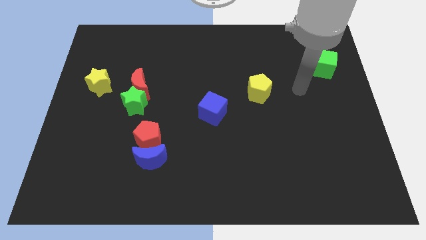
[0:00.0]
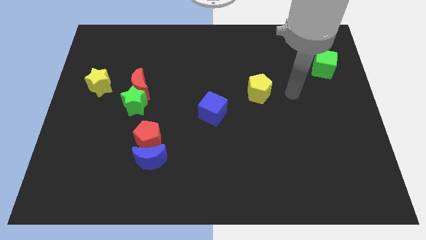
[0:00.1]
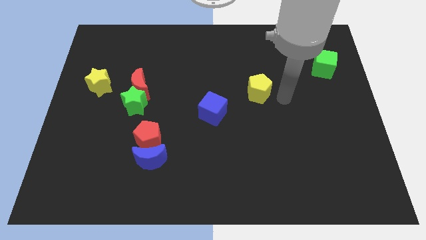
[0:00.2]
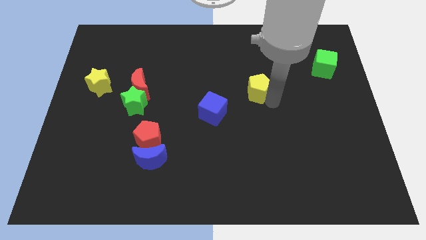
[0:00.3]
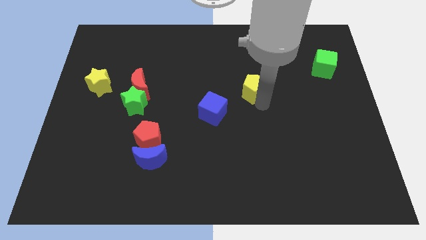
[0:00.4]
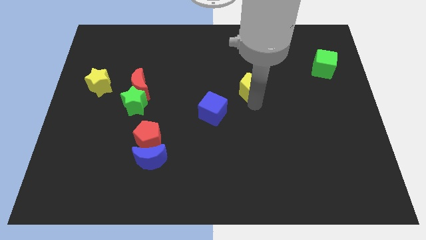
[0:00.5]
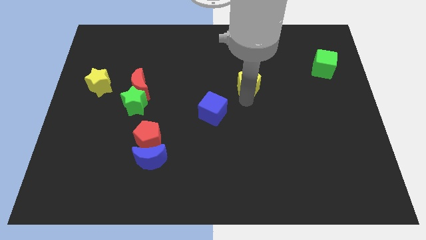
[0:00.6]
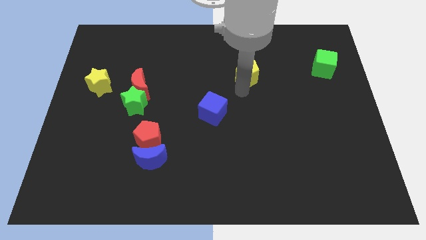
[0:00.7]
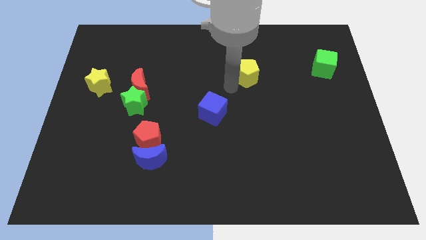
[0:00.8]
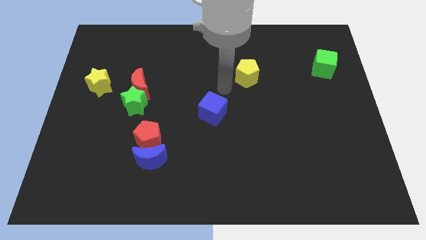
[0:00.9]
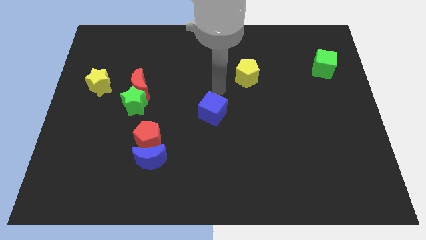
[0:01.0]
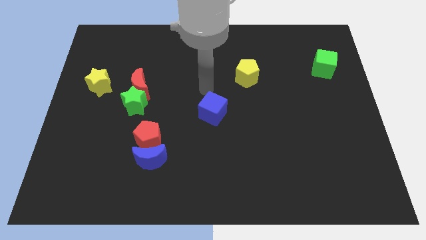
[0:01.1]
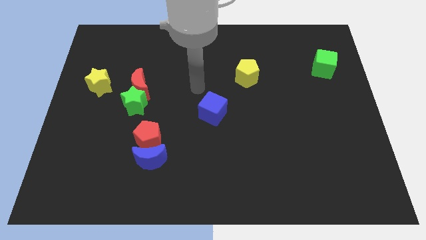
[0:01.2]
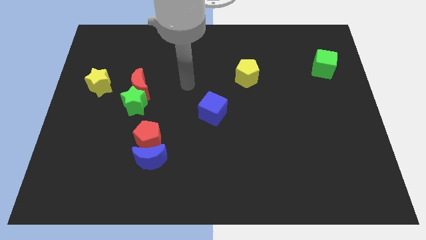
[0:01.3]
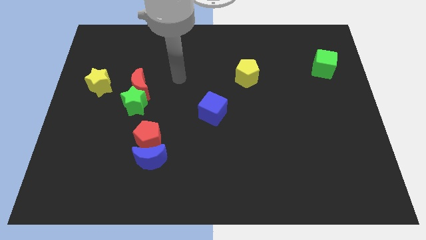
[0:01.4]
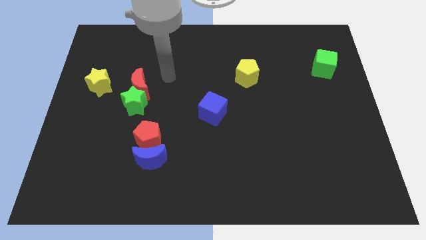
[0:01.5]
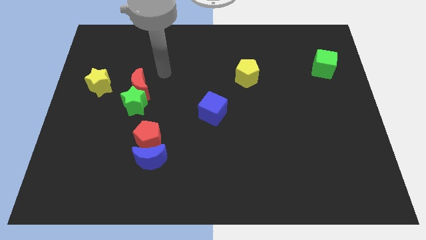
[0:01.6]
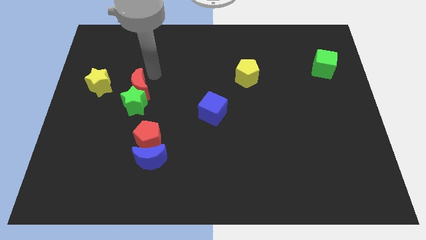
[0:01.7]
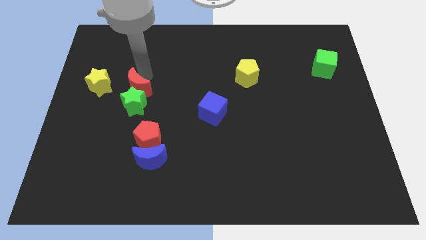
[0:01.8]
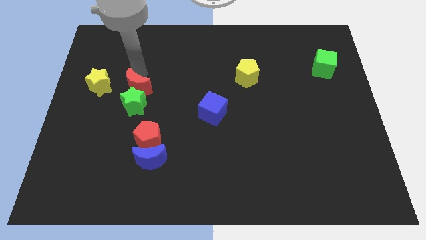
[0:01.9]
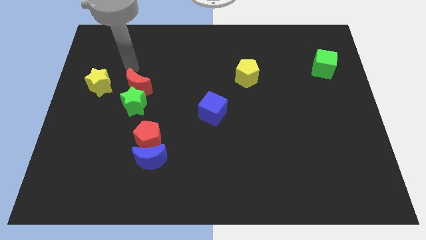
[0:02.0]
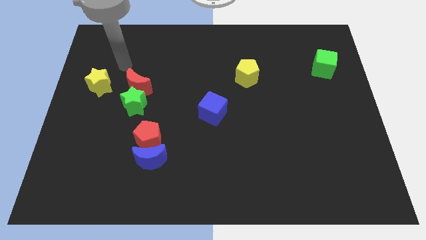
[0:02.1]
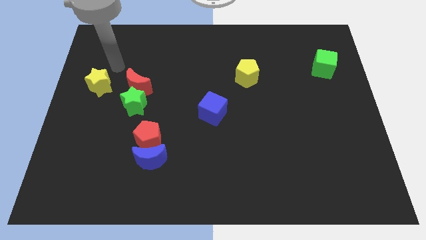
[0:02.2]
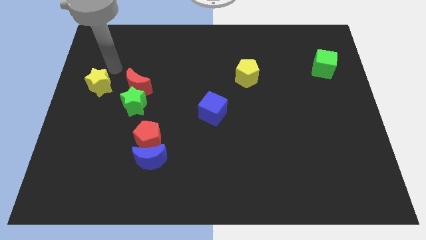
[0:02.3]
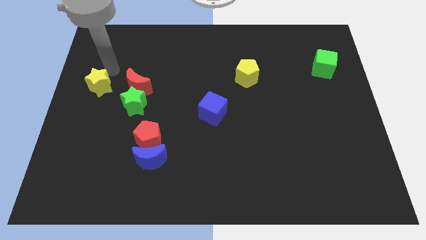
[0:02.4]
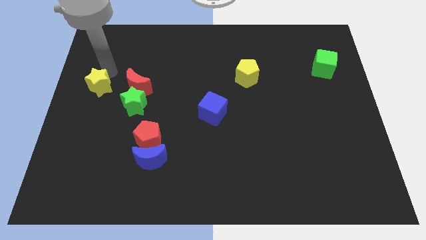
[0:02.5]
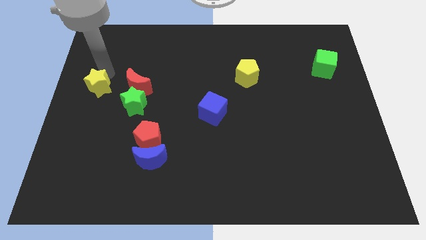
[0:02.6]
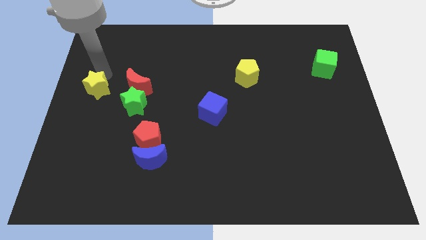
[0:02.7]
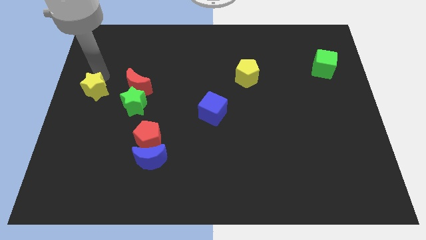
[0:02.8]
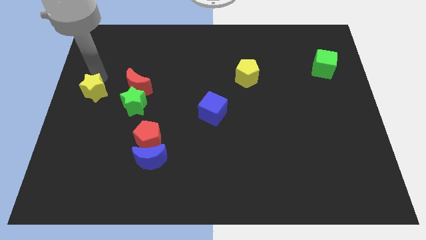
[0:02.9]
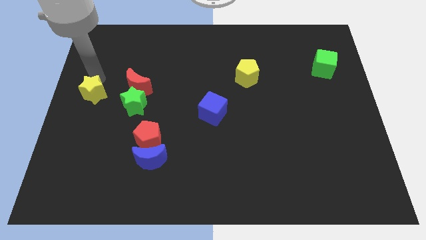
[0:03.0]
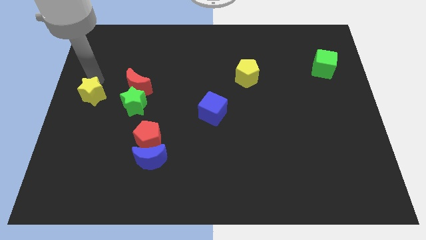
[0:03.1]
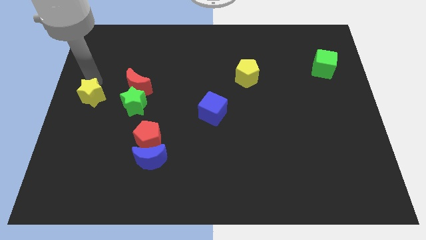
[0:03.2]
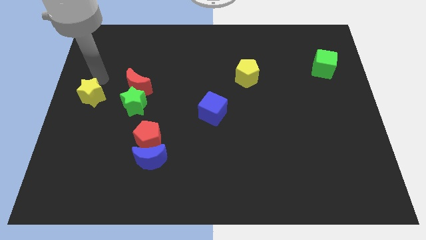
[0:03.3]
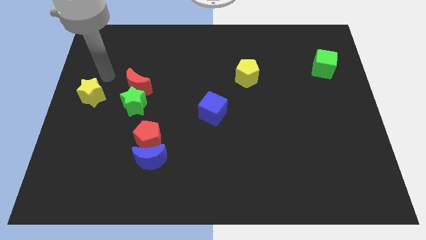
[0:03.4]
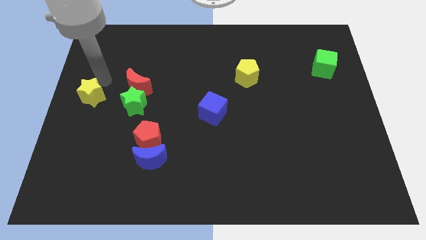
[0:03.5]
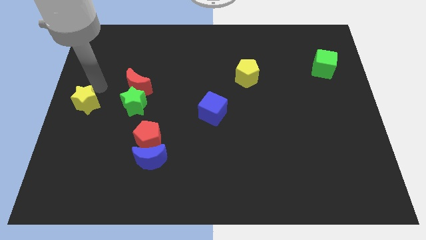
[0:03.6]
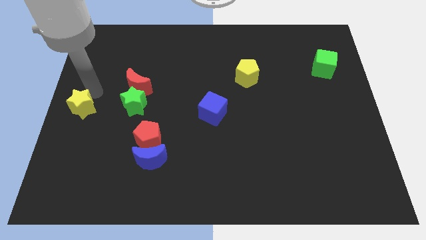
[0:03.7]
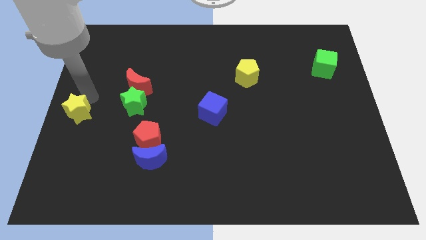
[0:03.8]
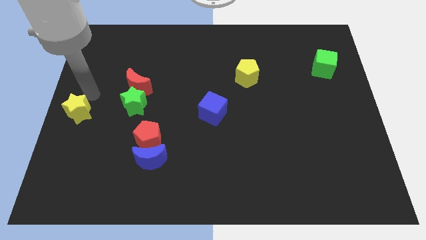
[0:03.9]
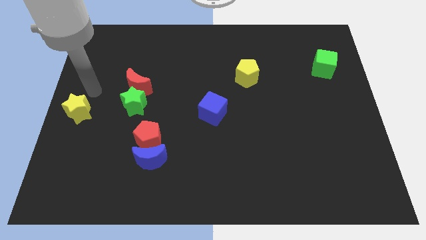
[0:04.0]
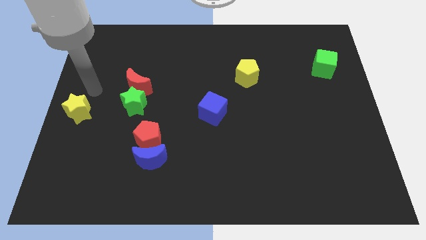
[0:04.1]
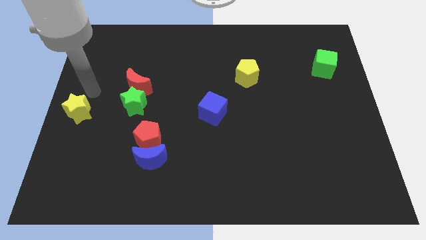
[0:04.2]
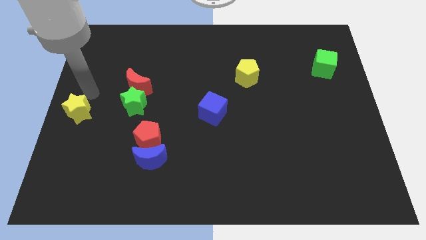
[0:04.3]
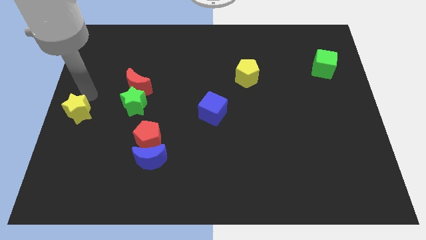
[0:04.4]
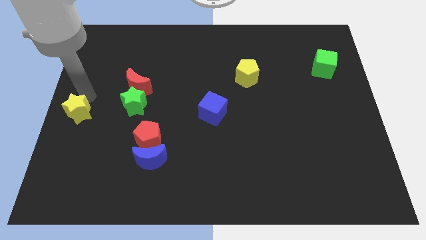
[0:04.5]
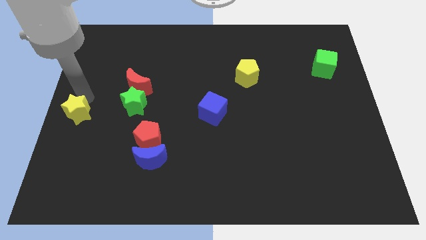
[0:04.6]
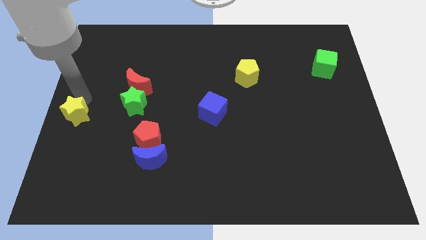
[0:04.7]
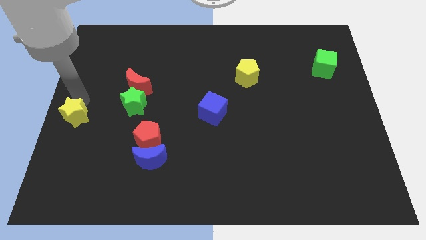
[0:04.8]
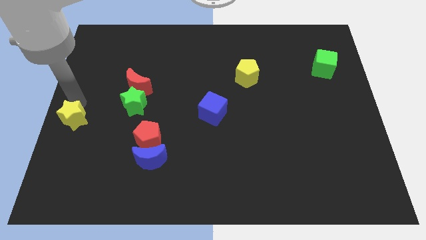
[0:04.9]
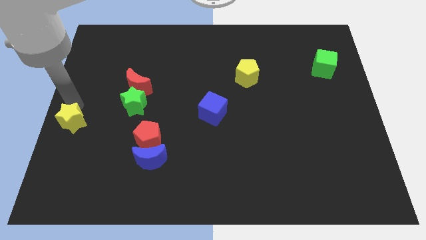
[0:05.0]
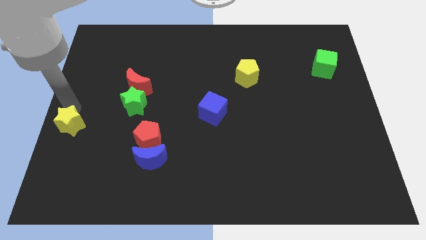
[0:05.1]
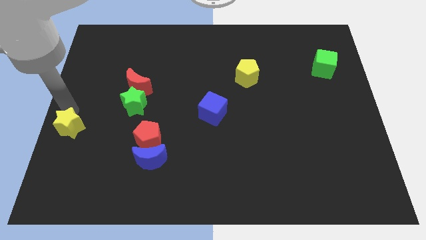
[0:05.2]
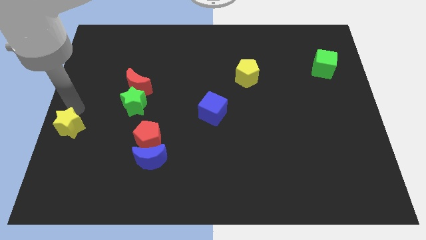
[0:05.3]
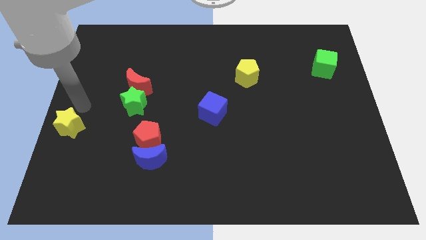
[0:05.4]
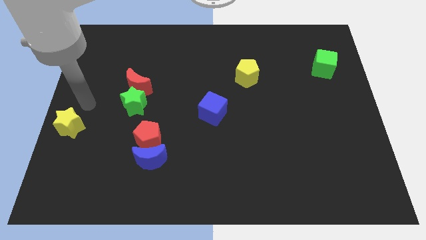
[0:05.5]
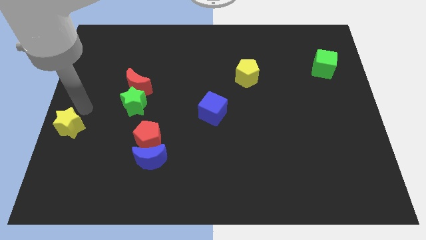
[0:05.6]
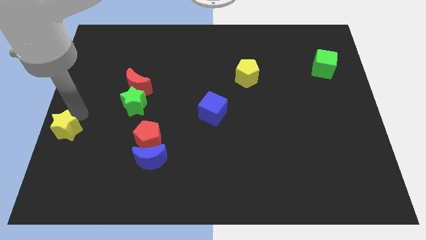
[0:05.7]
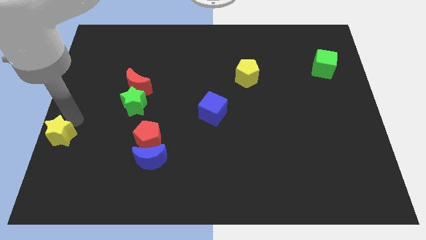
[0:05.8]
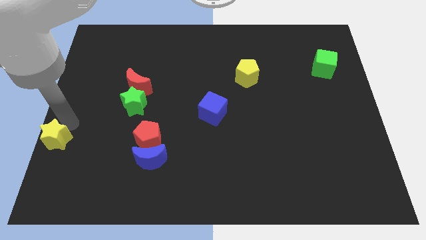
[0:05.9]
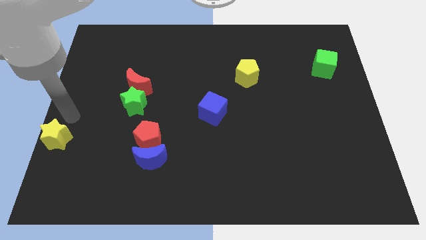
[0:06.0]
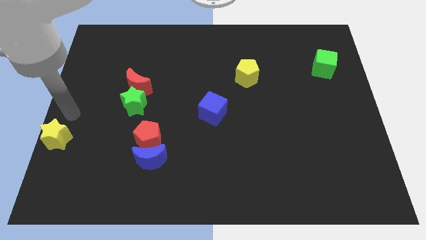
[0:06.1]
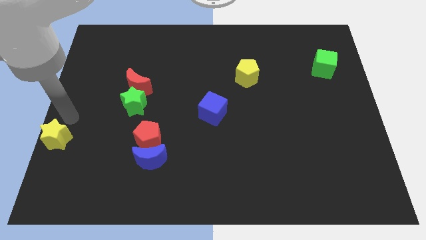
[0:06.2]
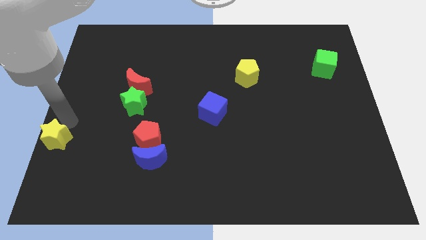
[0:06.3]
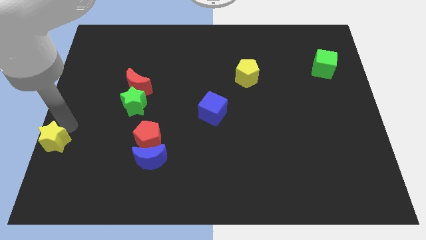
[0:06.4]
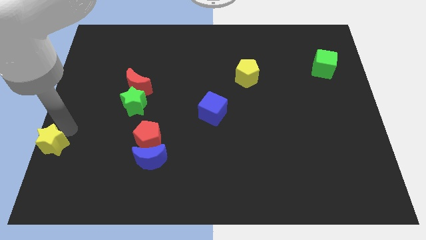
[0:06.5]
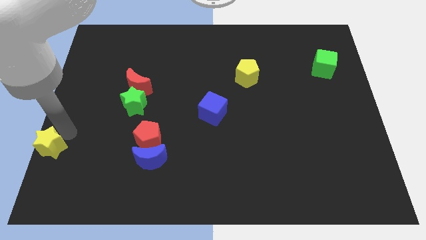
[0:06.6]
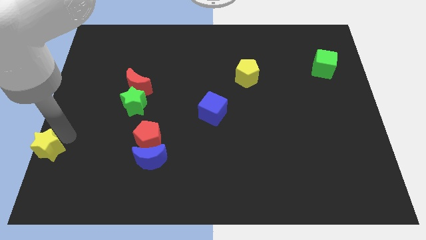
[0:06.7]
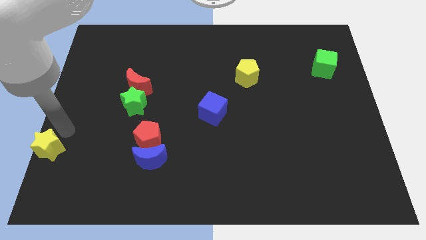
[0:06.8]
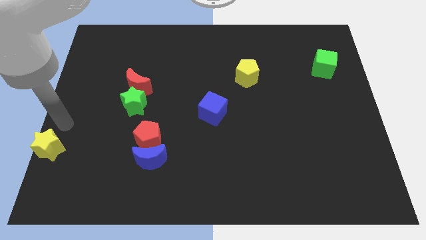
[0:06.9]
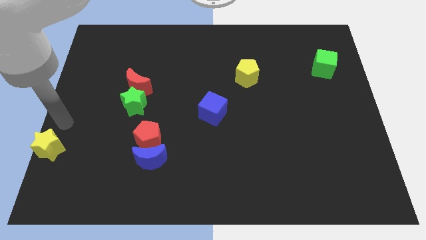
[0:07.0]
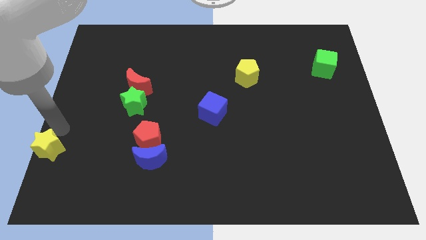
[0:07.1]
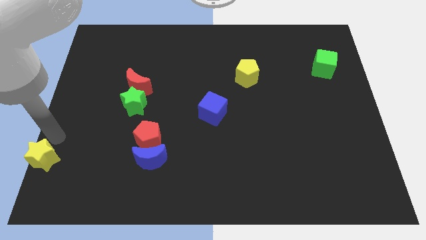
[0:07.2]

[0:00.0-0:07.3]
slide the yellow star to the bottom left corner
